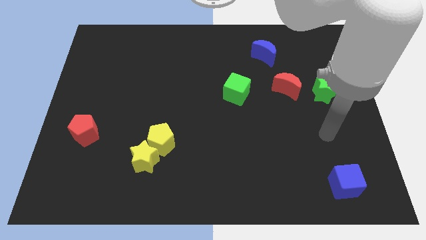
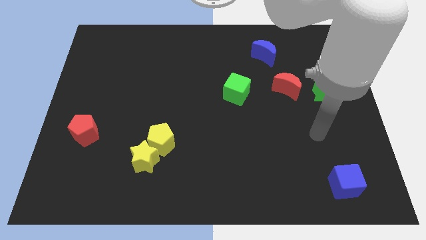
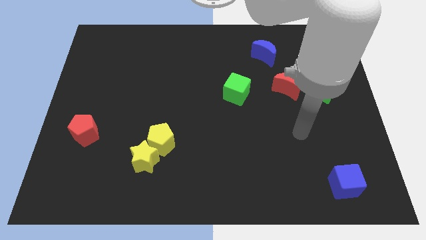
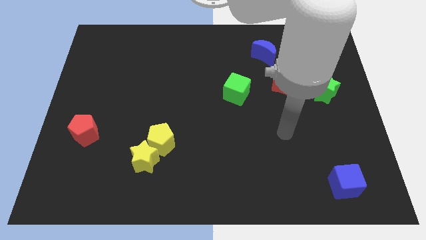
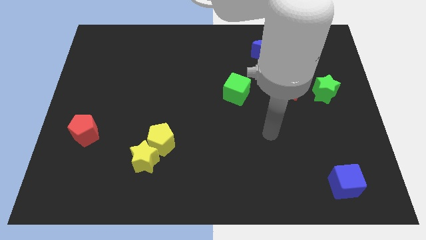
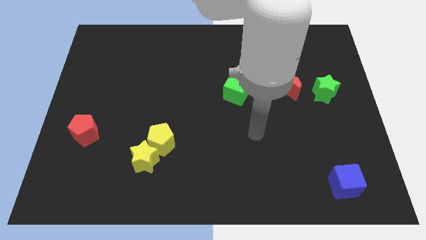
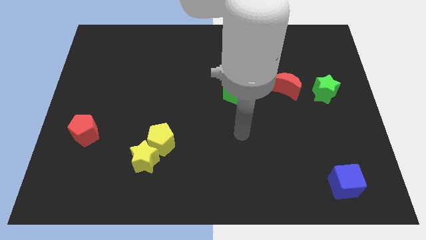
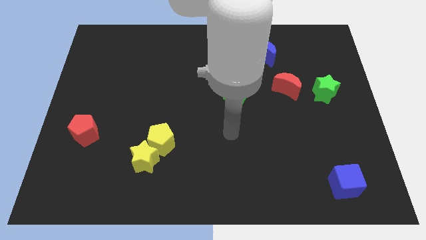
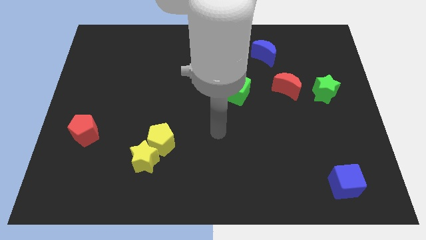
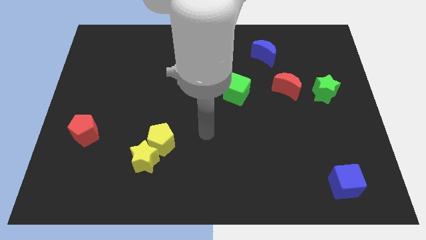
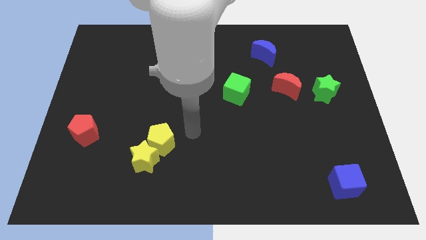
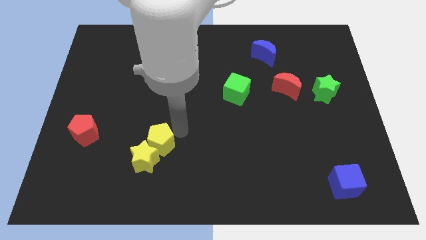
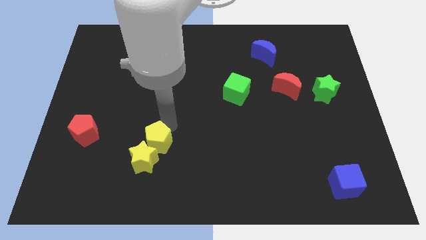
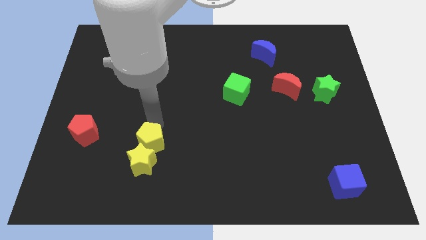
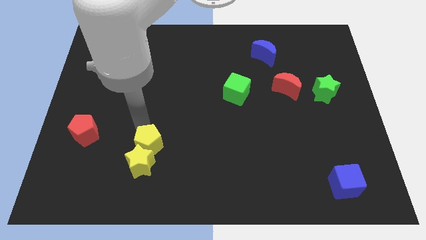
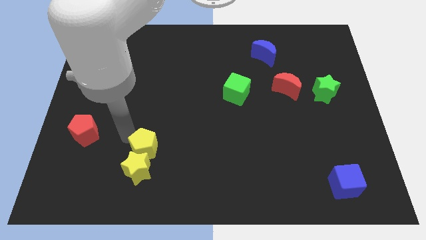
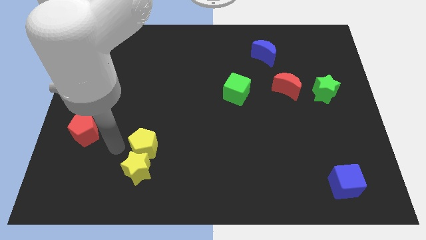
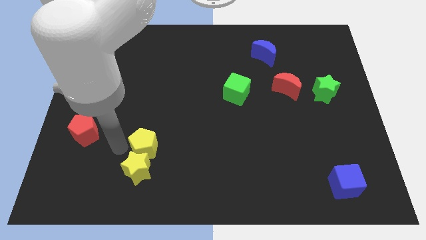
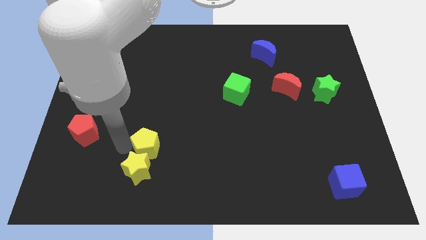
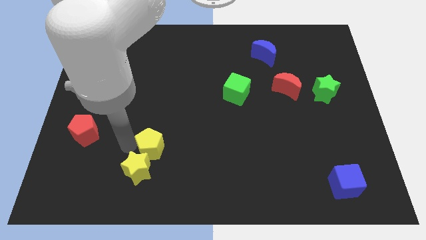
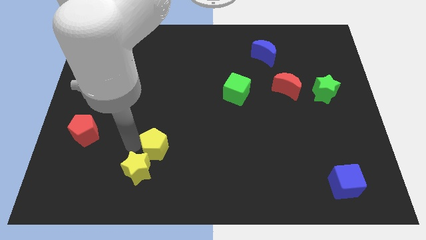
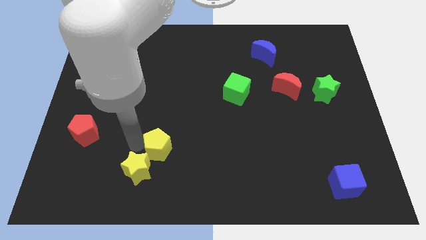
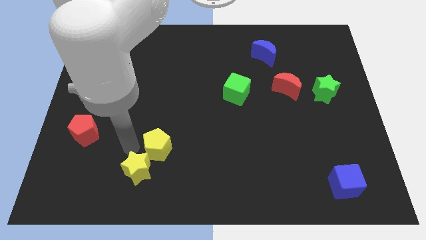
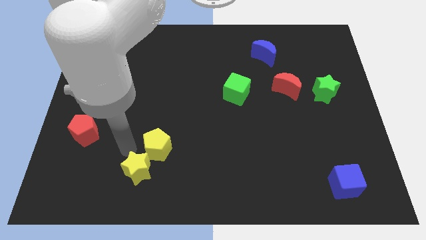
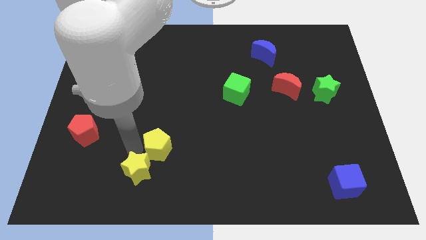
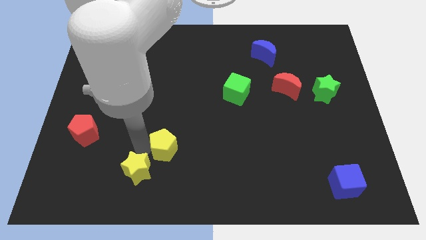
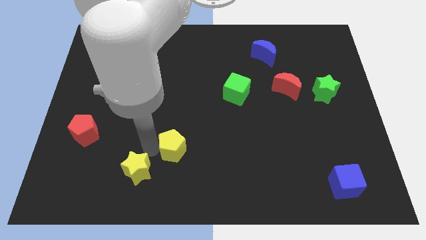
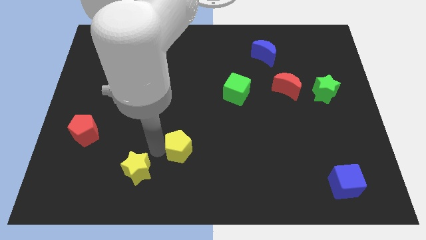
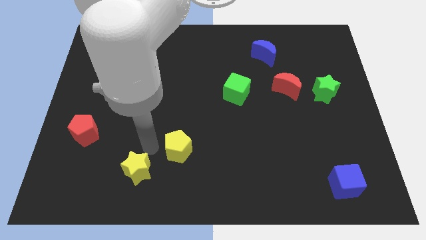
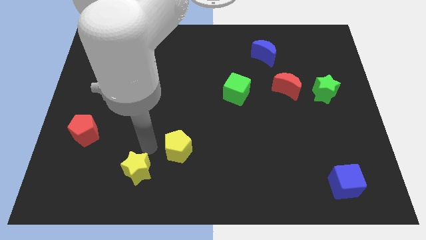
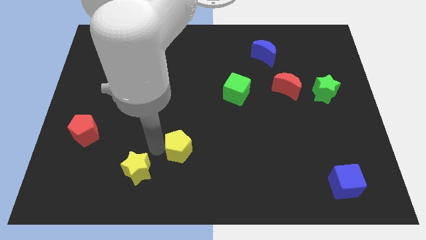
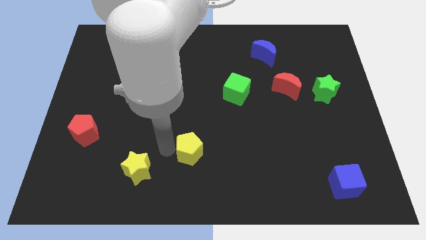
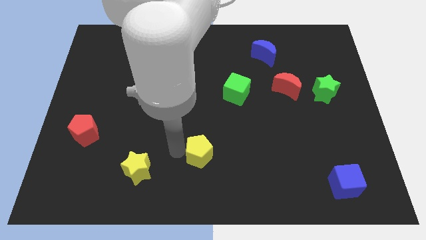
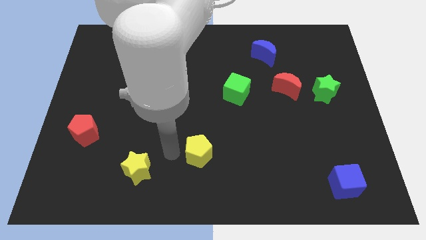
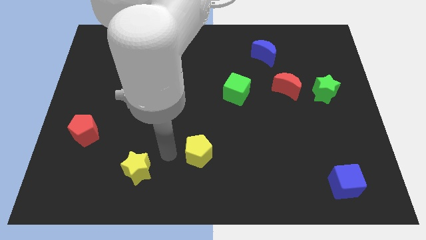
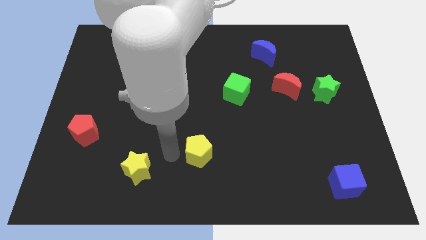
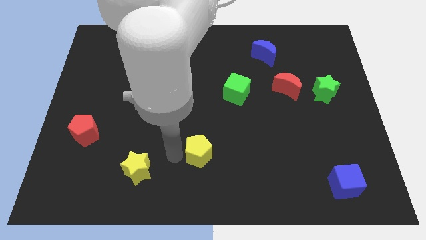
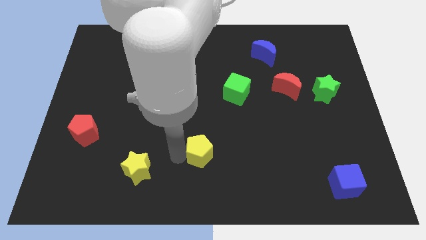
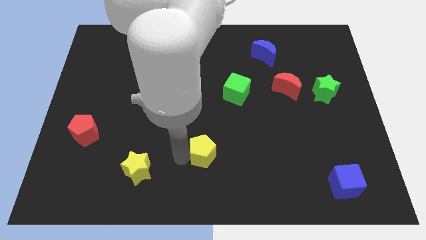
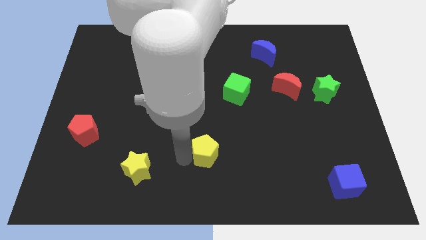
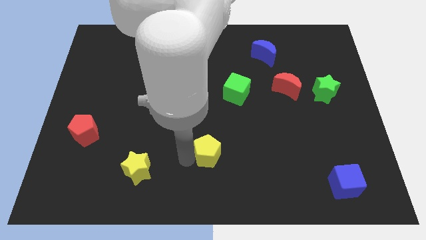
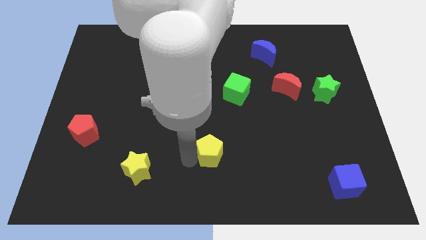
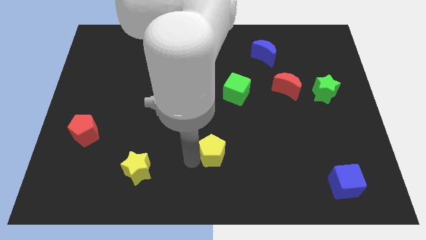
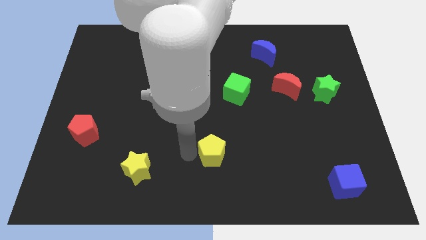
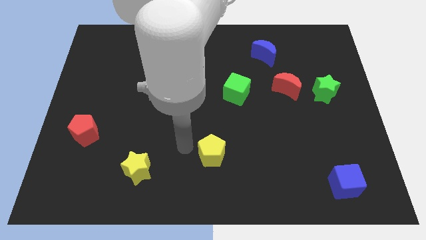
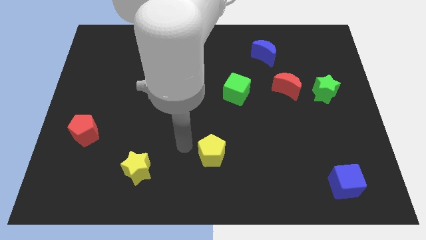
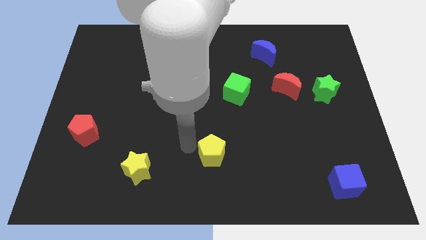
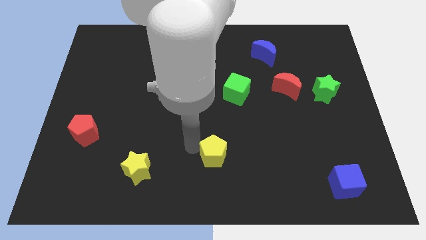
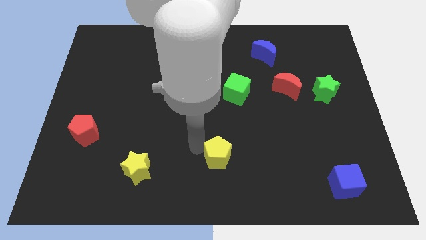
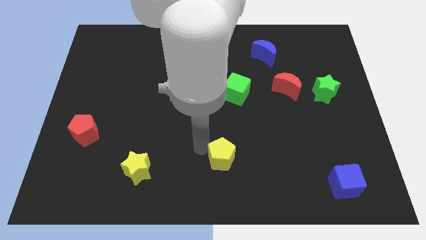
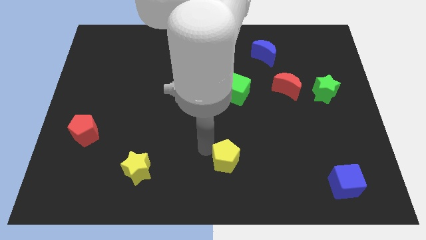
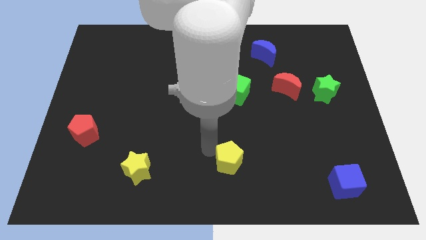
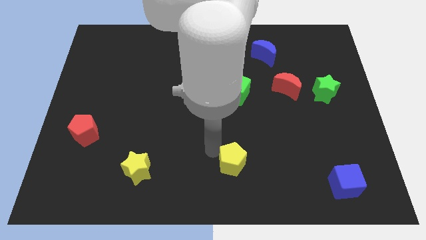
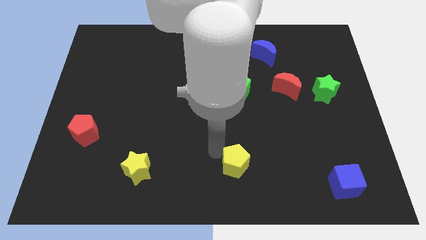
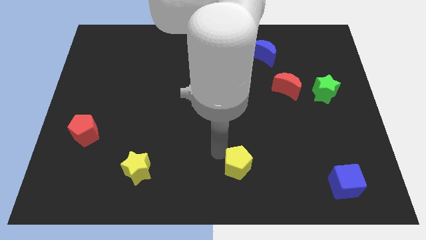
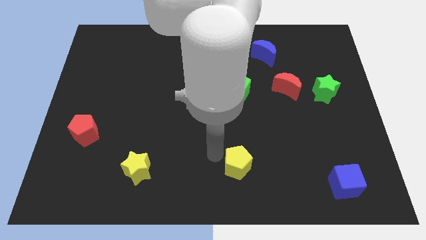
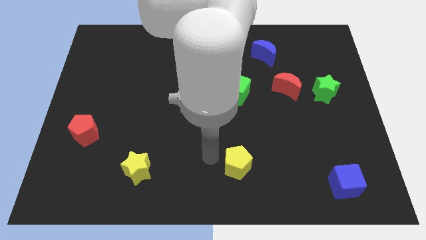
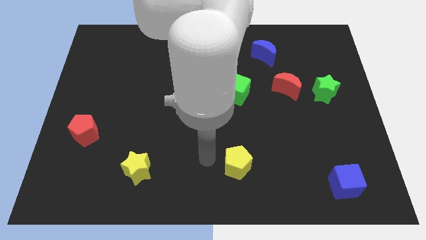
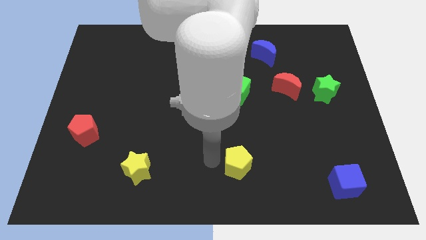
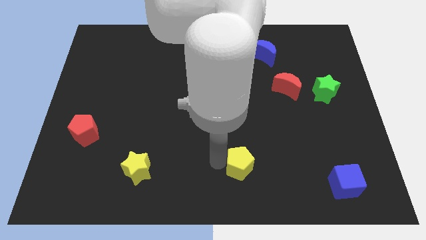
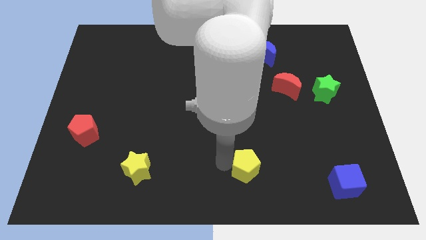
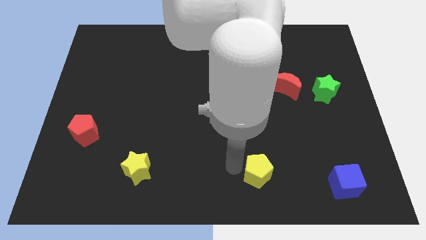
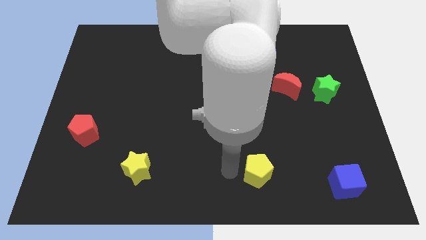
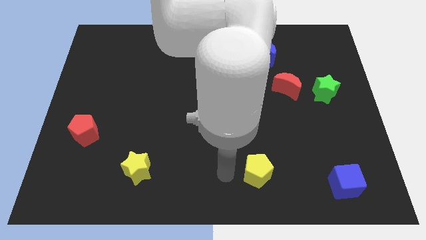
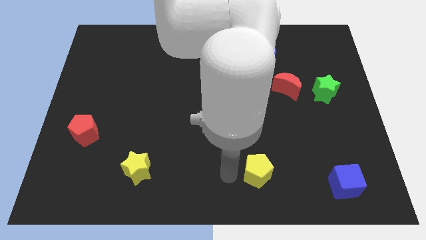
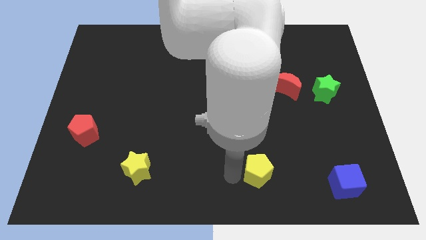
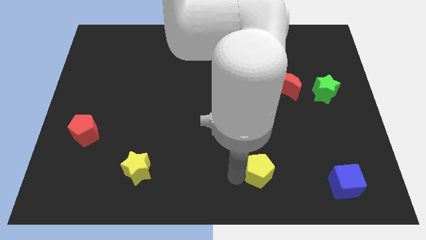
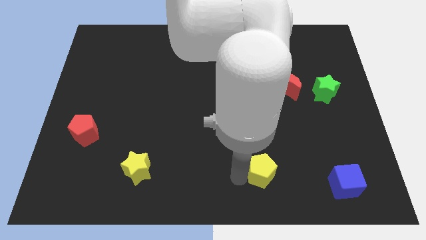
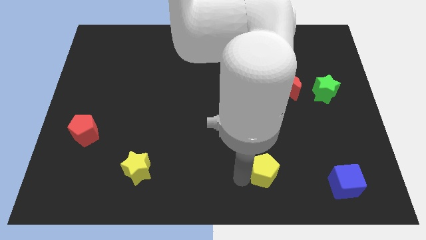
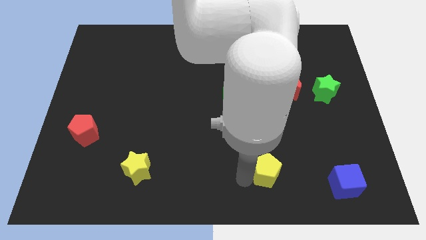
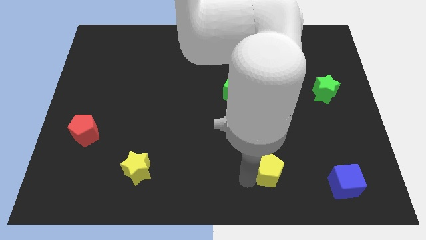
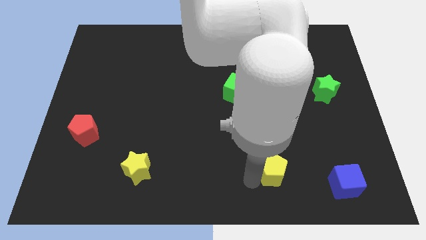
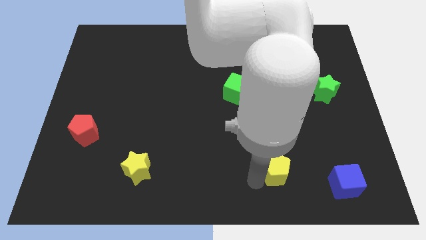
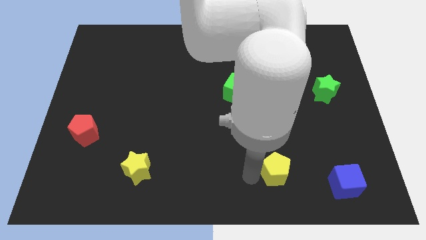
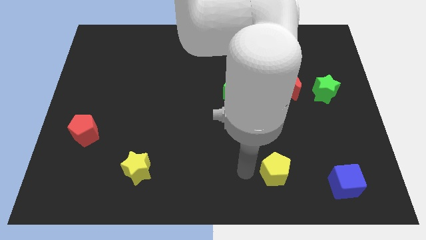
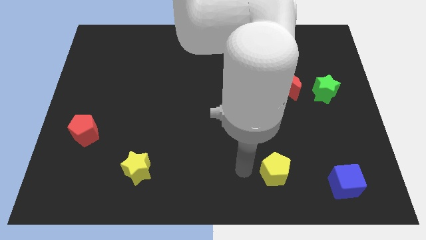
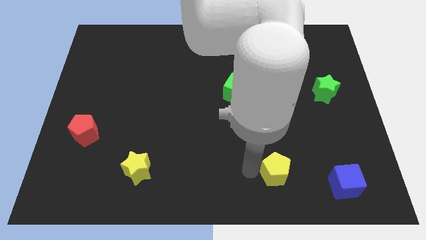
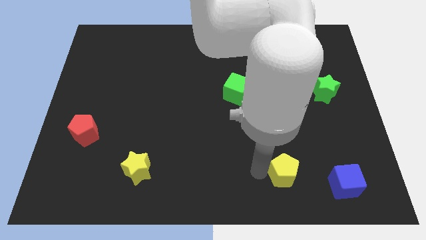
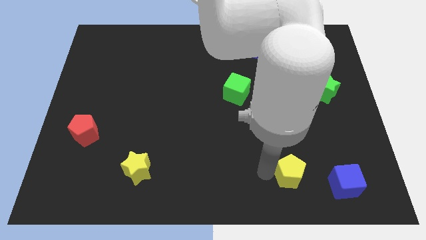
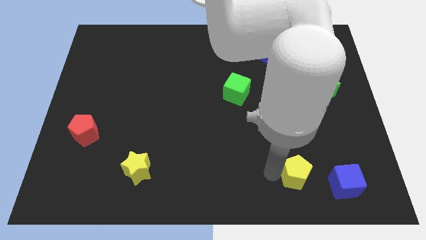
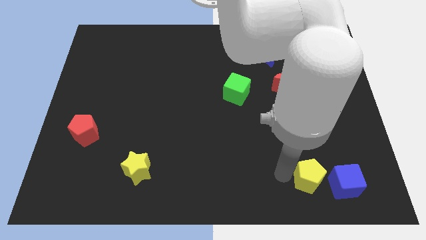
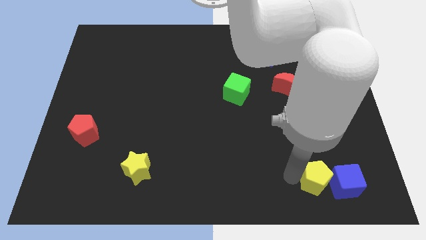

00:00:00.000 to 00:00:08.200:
put the yellow pentagon towards the blue cube
